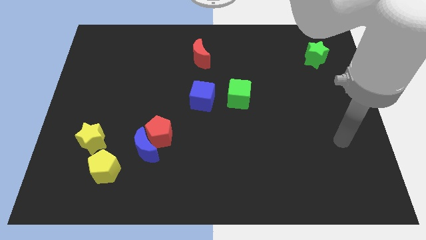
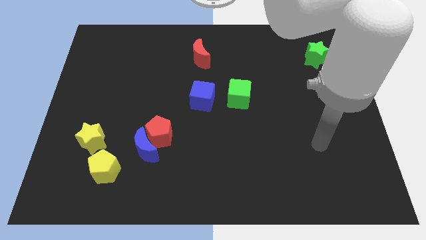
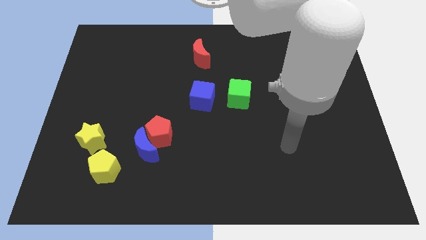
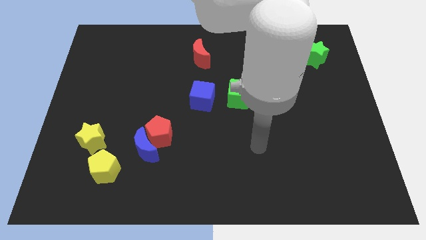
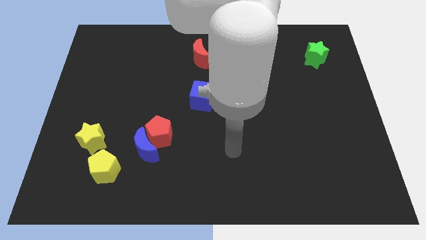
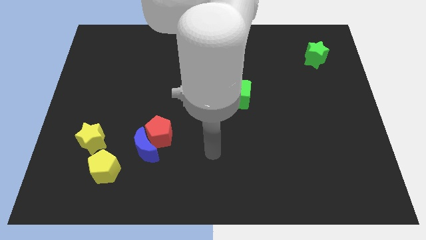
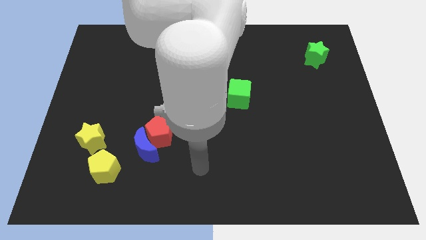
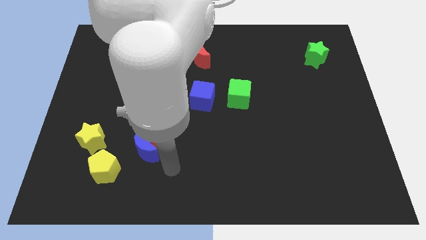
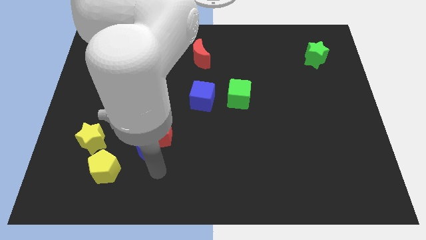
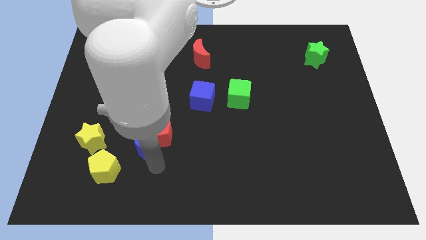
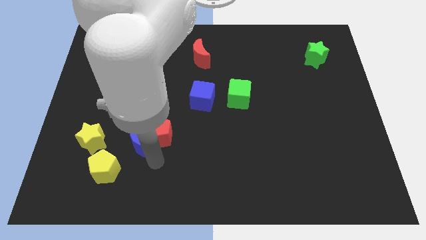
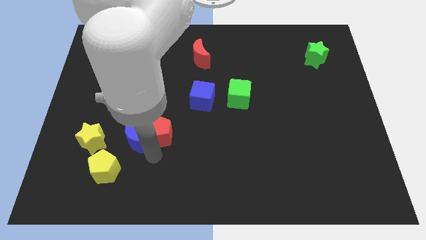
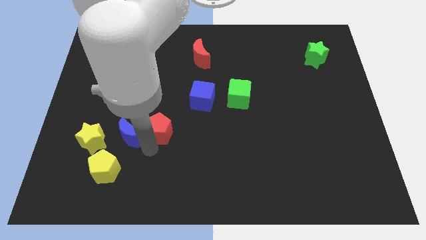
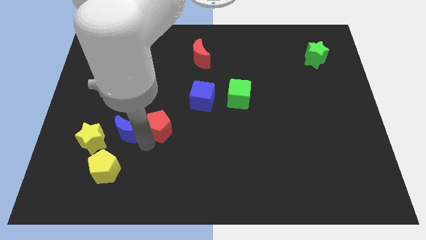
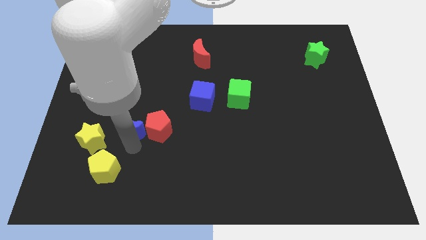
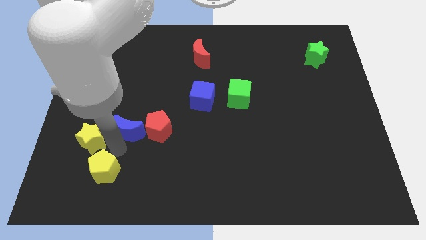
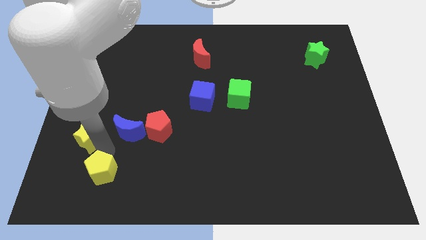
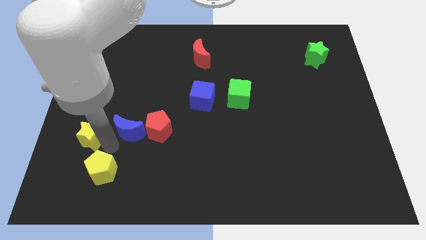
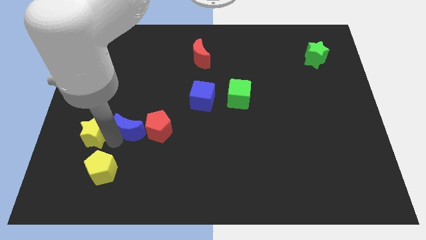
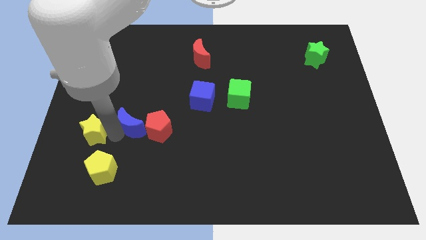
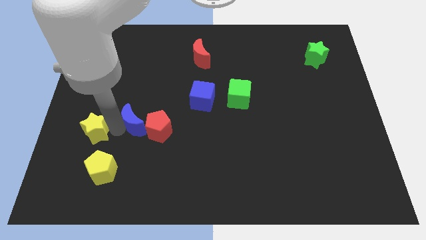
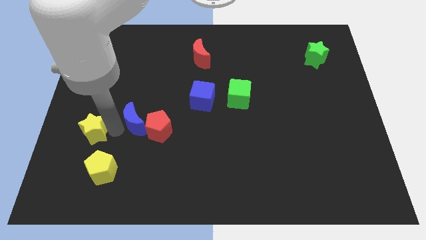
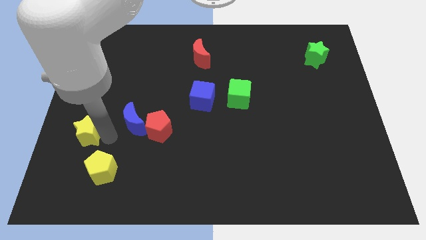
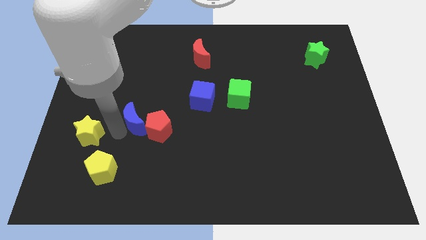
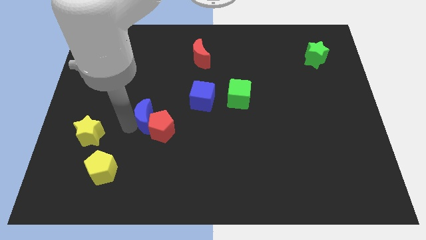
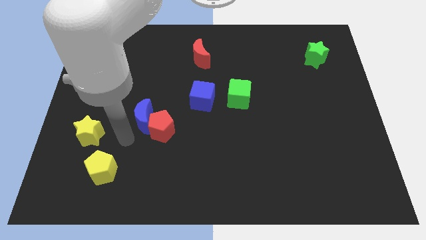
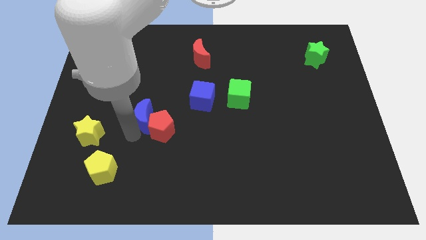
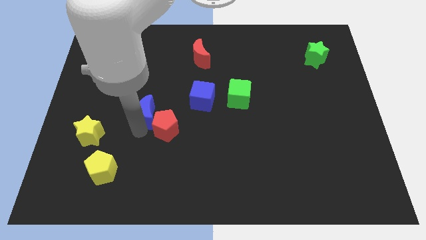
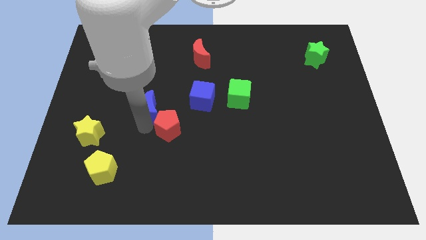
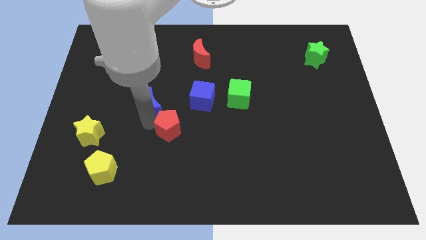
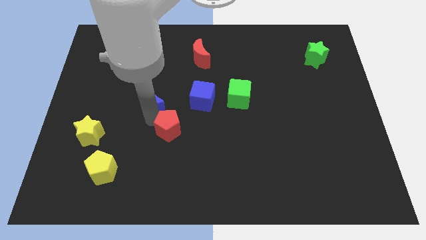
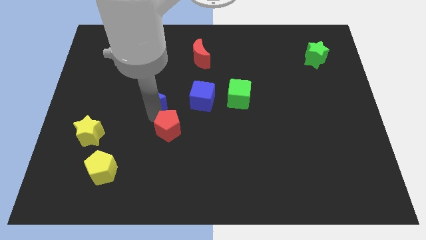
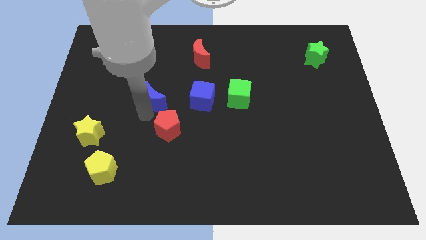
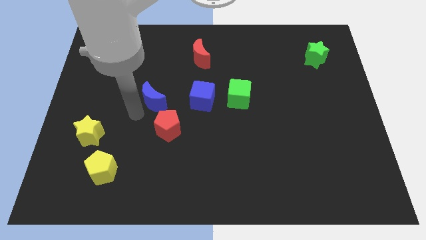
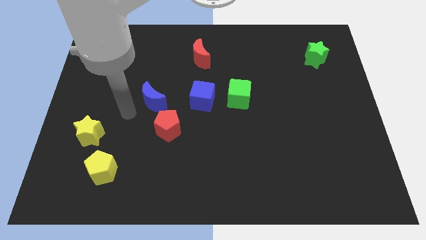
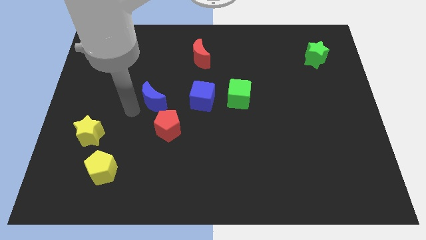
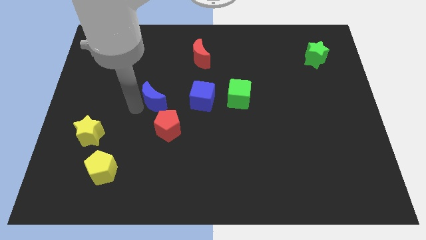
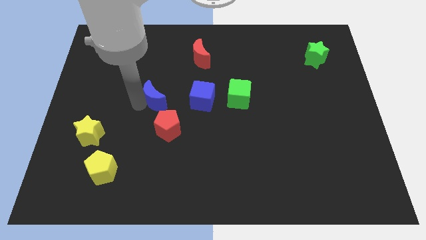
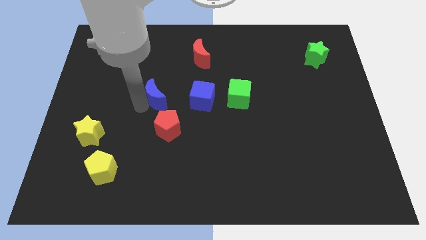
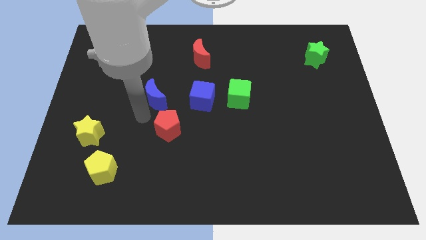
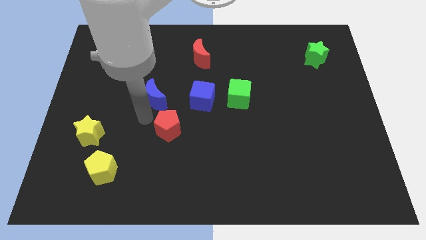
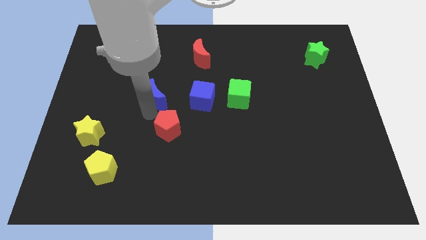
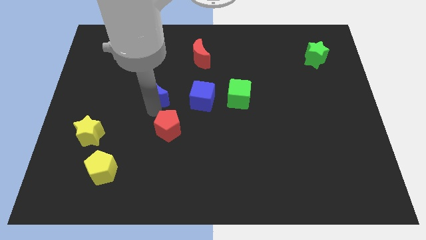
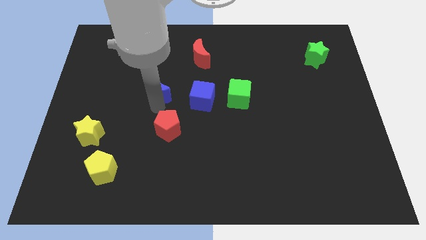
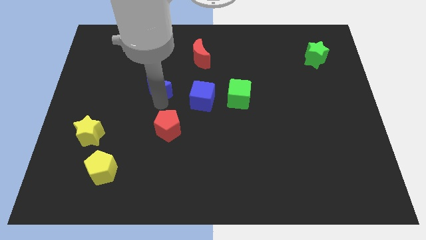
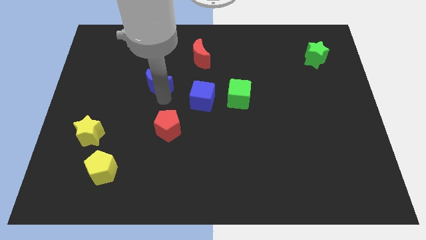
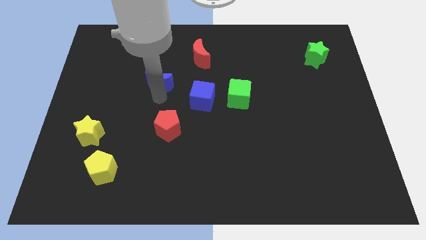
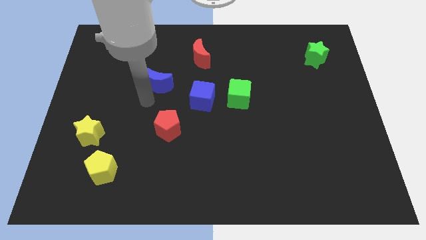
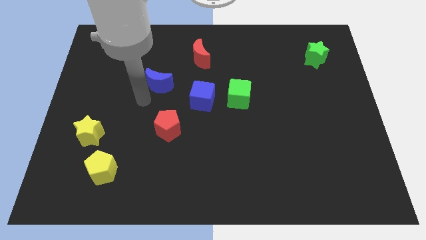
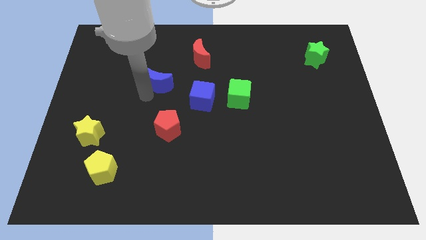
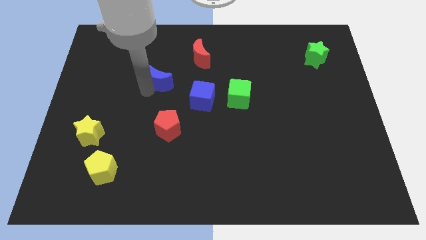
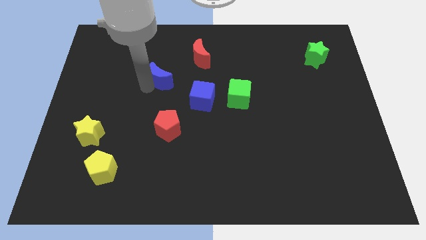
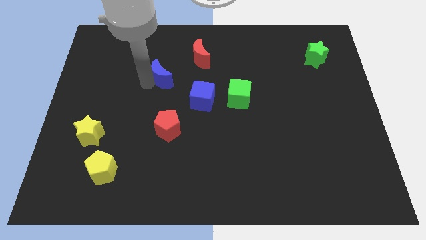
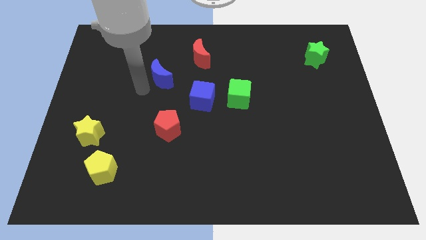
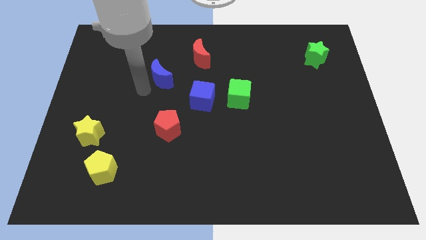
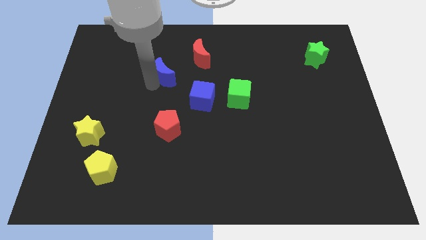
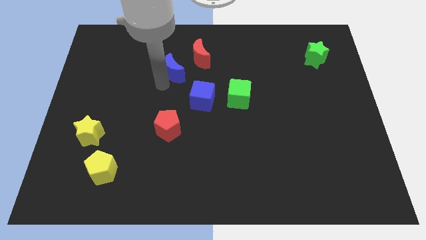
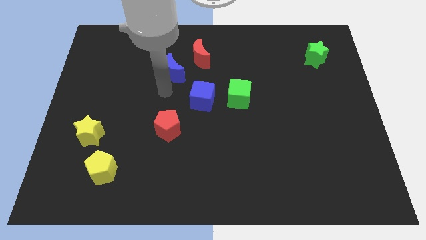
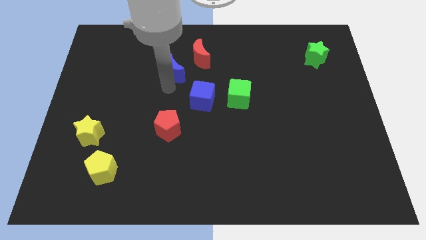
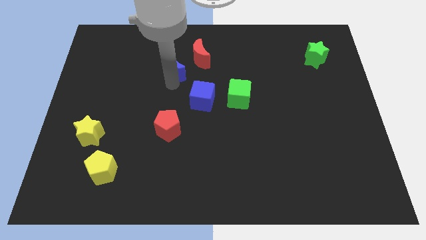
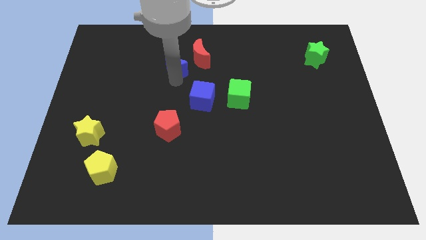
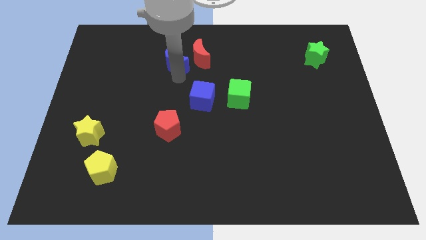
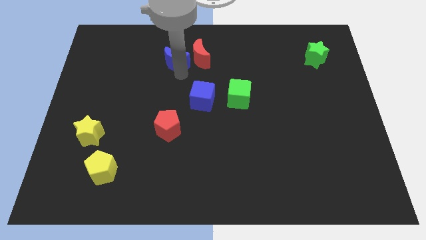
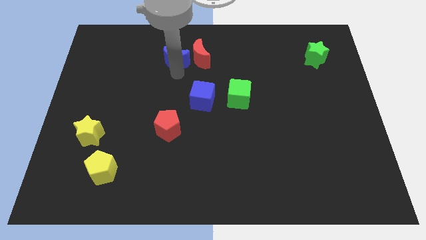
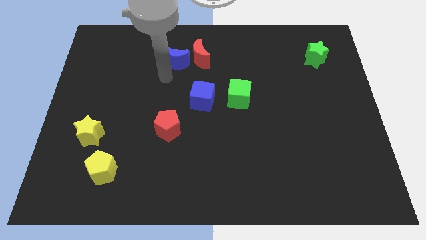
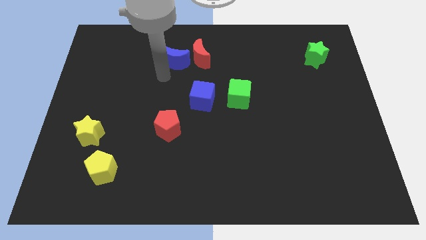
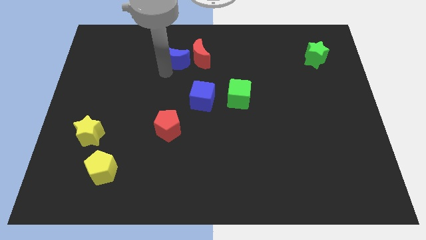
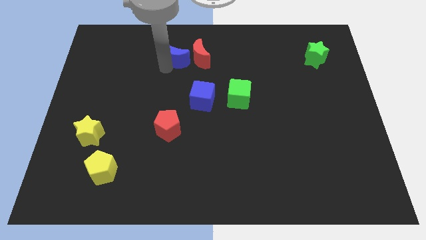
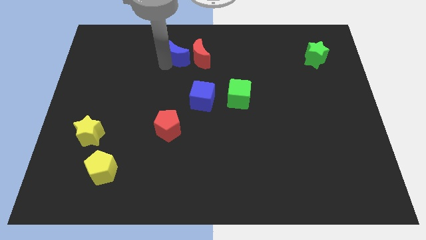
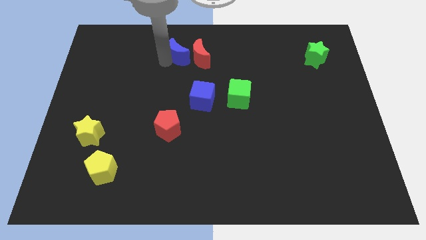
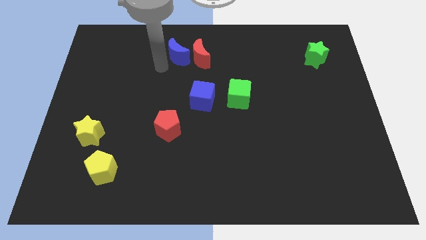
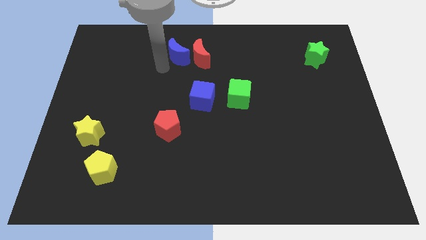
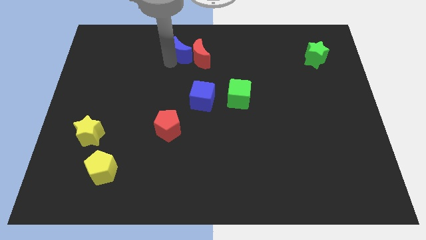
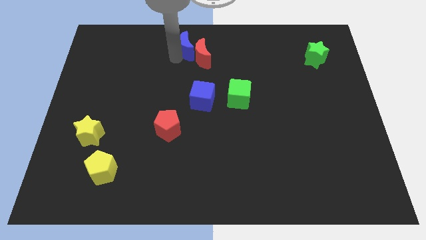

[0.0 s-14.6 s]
put the blue moon to the top side
